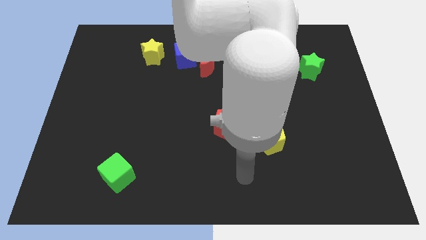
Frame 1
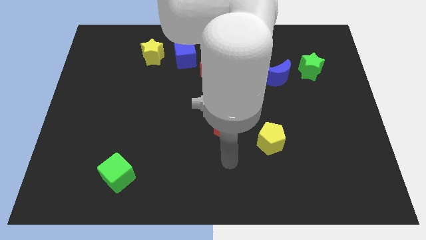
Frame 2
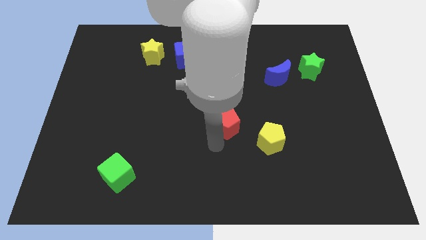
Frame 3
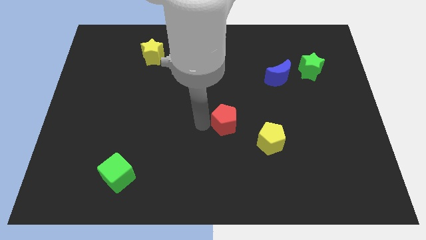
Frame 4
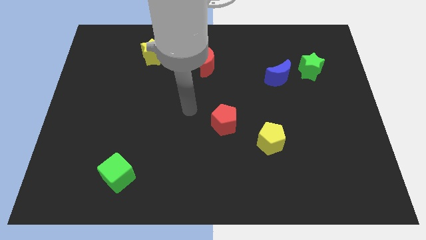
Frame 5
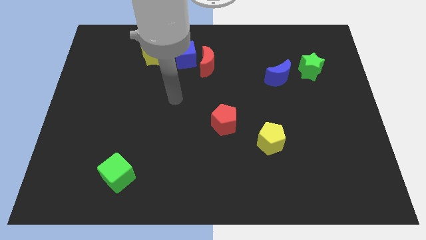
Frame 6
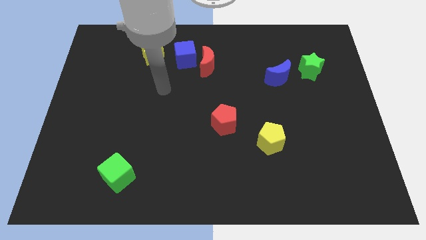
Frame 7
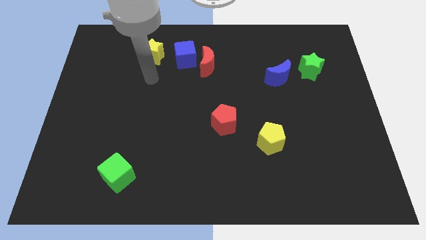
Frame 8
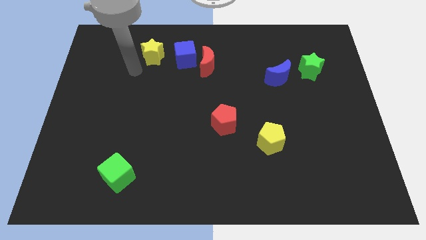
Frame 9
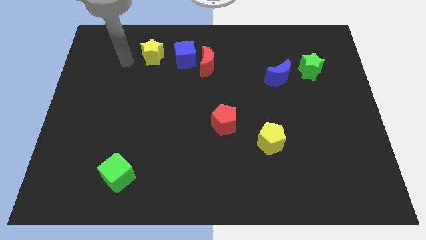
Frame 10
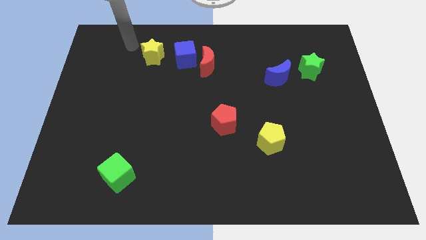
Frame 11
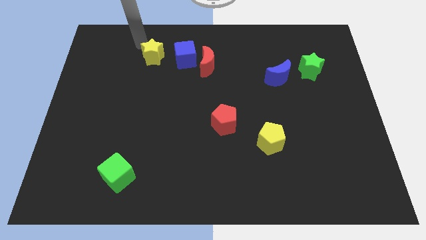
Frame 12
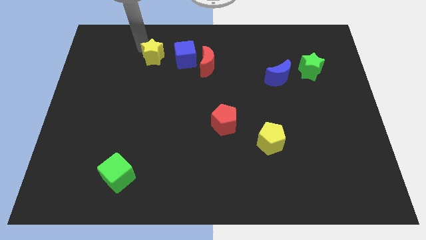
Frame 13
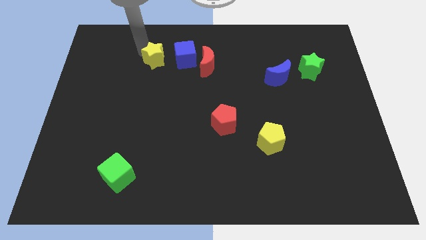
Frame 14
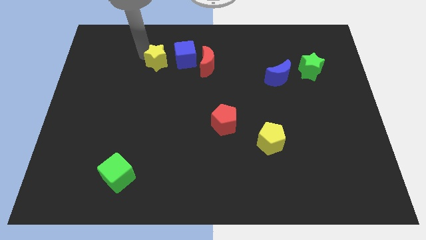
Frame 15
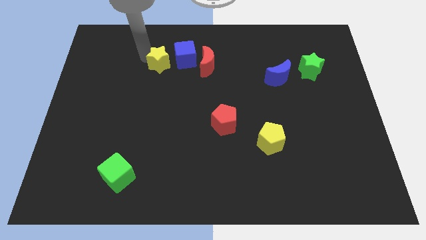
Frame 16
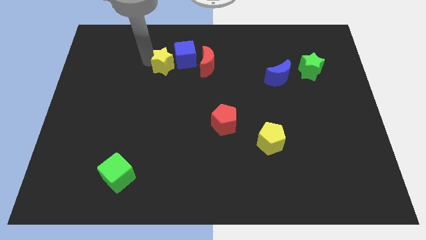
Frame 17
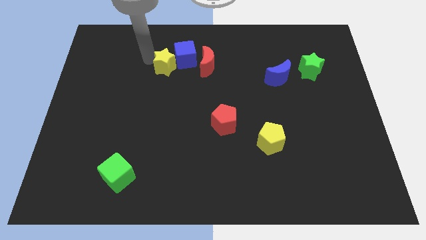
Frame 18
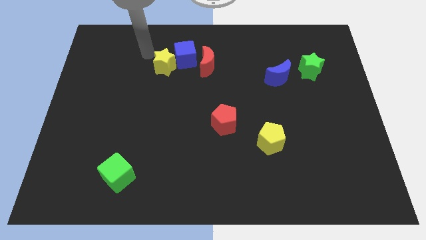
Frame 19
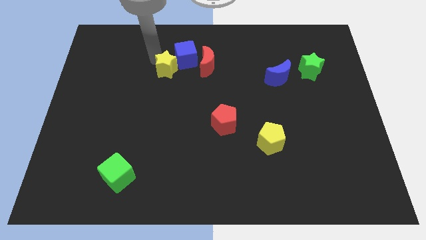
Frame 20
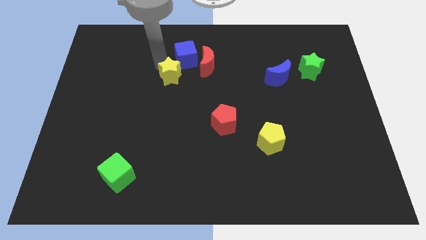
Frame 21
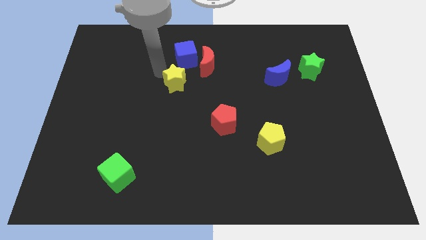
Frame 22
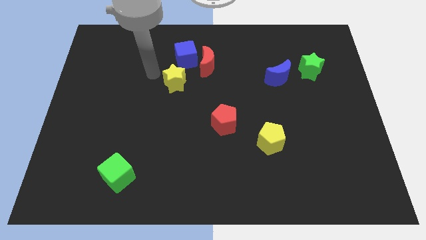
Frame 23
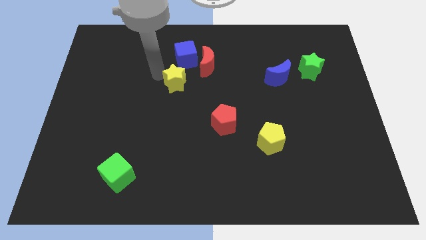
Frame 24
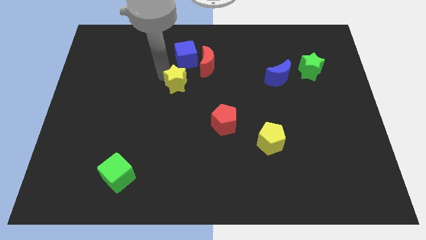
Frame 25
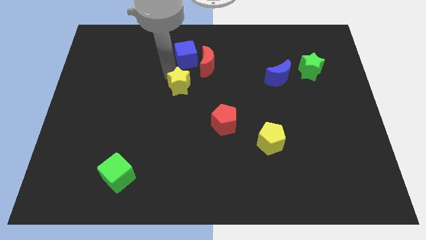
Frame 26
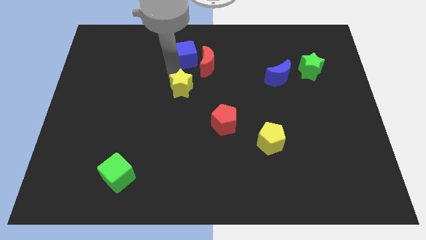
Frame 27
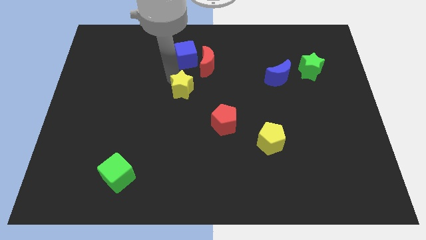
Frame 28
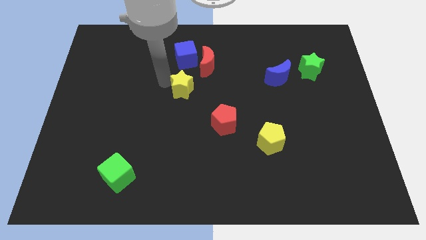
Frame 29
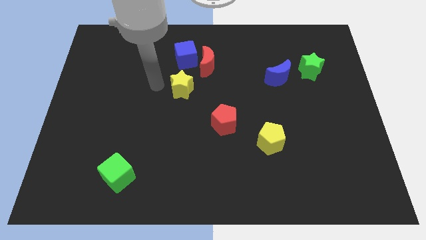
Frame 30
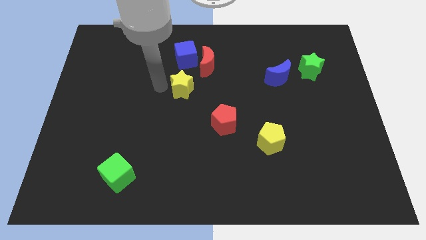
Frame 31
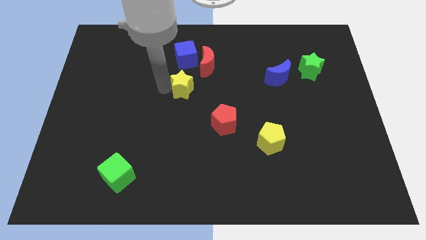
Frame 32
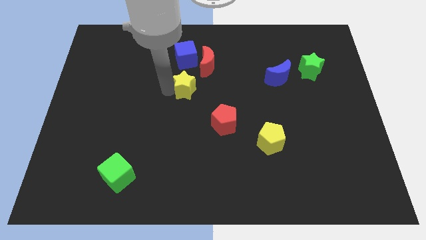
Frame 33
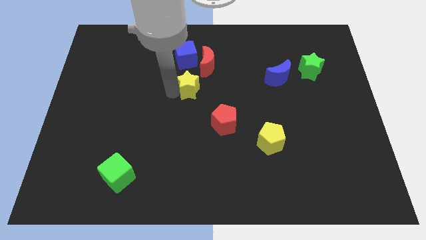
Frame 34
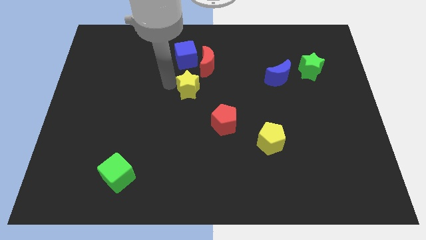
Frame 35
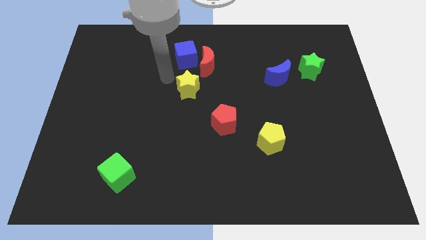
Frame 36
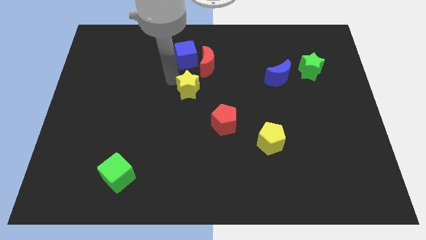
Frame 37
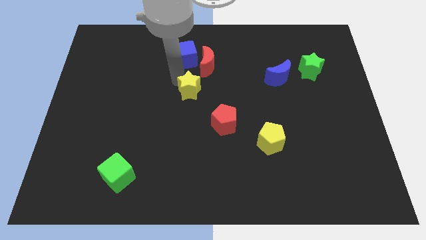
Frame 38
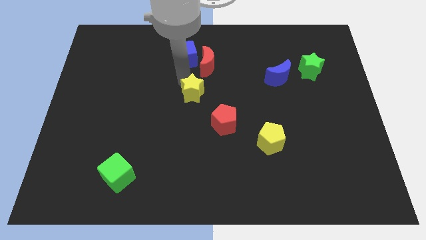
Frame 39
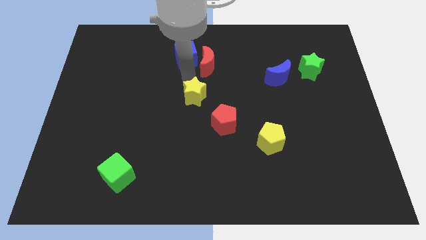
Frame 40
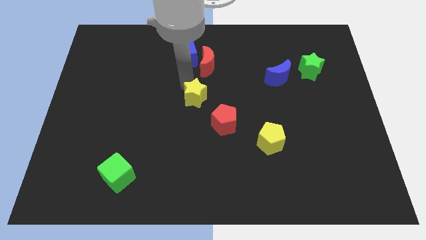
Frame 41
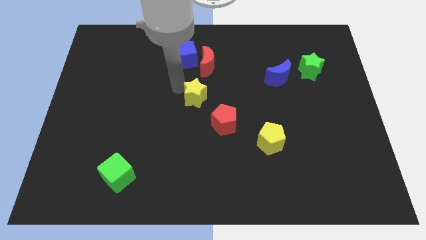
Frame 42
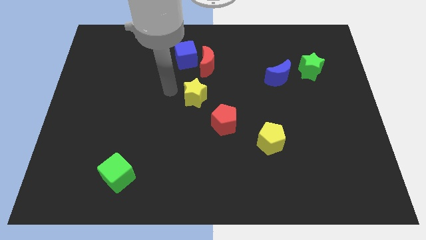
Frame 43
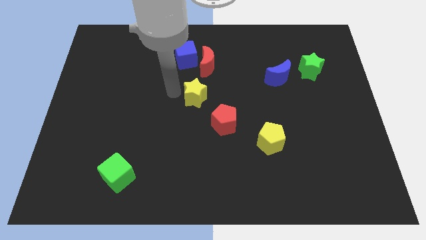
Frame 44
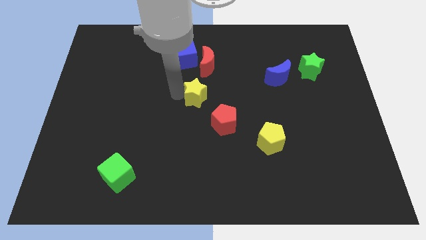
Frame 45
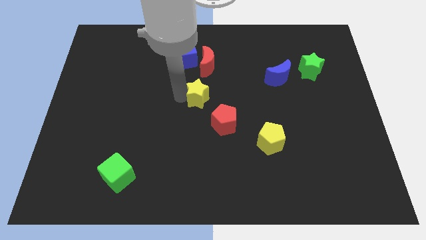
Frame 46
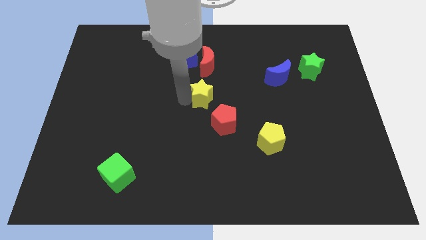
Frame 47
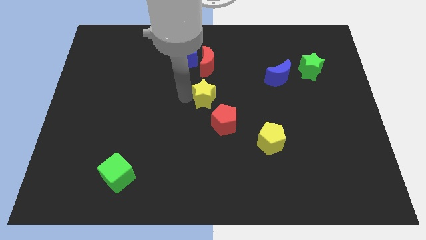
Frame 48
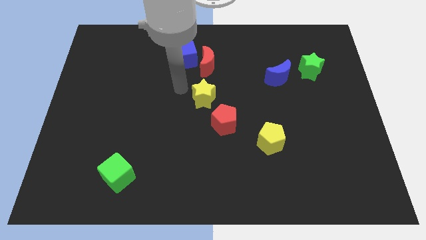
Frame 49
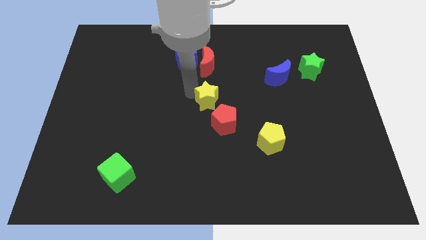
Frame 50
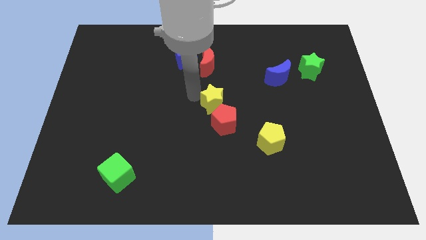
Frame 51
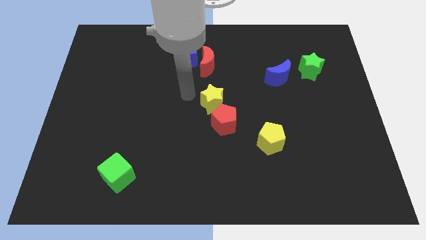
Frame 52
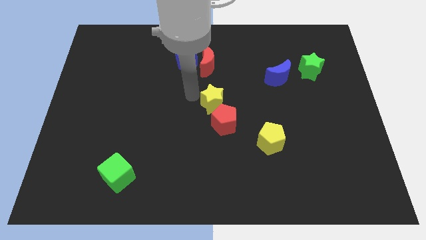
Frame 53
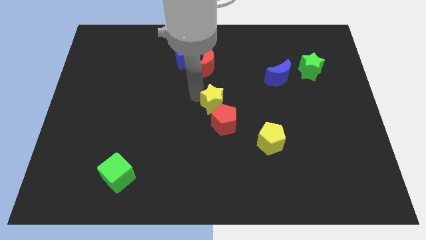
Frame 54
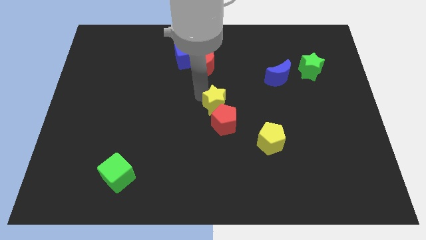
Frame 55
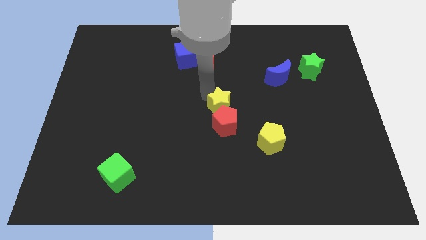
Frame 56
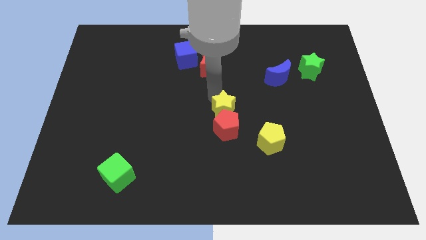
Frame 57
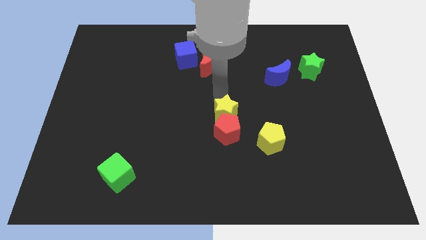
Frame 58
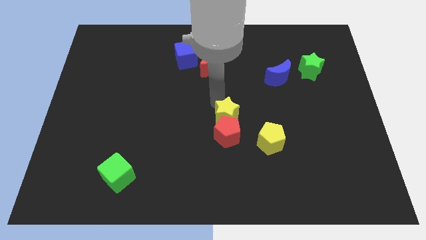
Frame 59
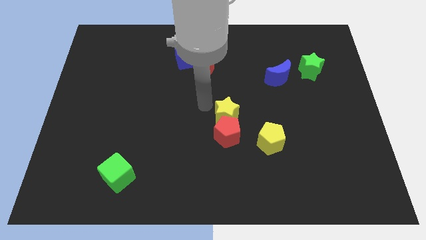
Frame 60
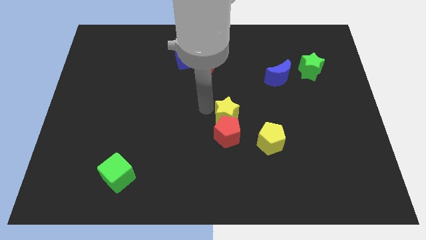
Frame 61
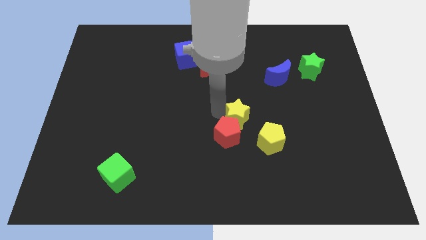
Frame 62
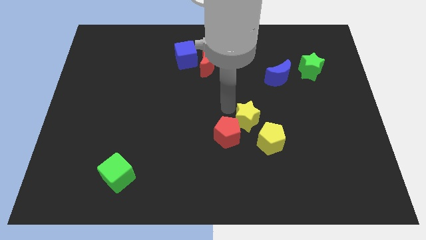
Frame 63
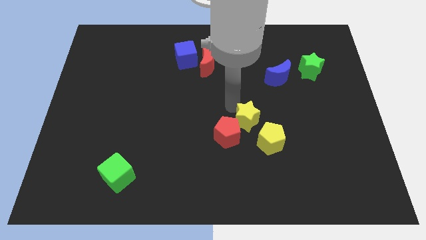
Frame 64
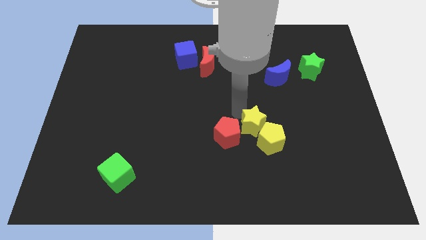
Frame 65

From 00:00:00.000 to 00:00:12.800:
slide the yellow star close to the yellow pentagon

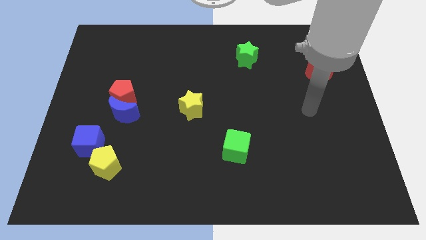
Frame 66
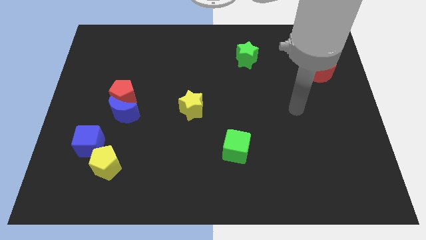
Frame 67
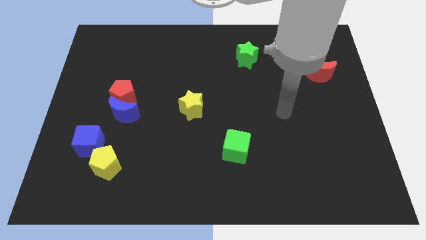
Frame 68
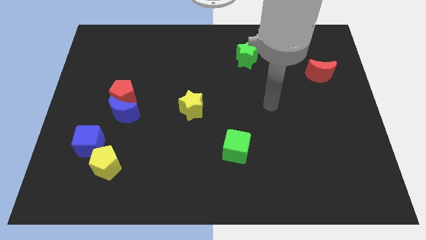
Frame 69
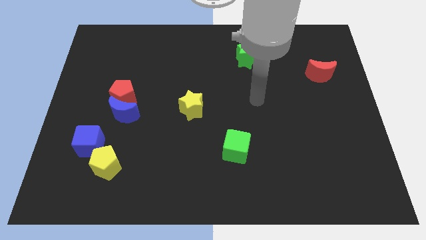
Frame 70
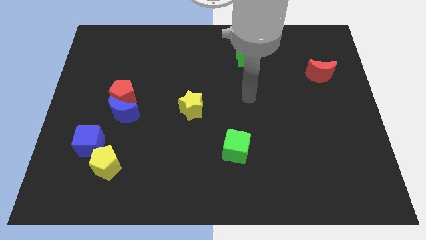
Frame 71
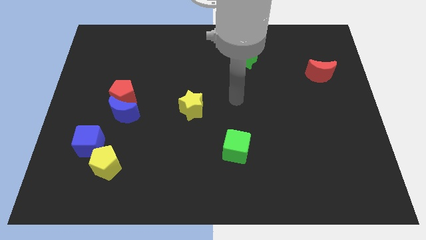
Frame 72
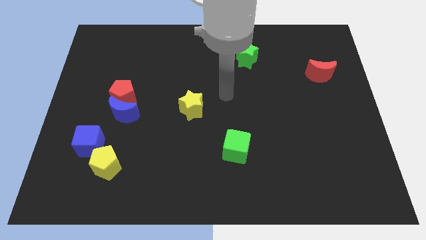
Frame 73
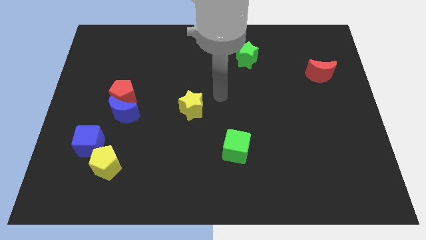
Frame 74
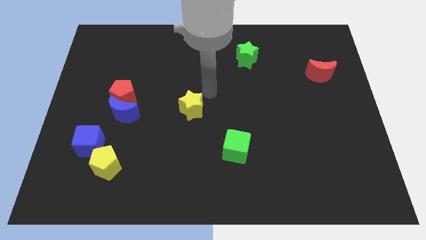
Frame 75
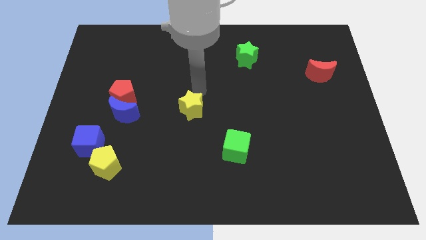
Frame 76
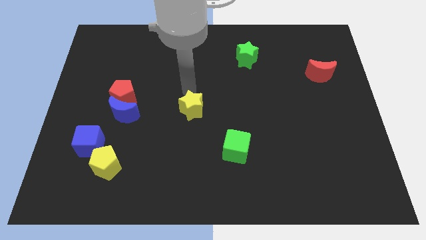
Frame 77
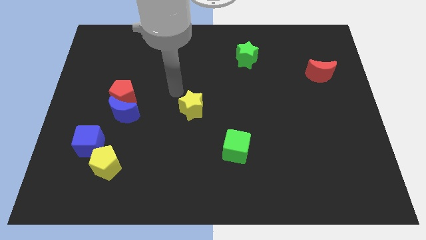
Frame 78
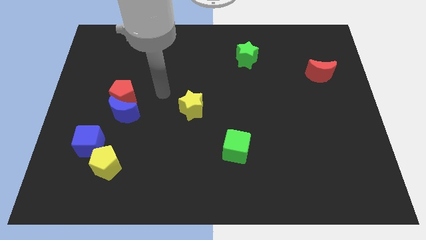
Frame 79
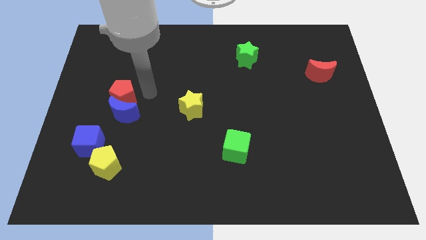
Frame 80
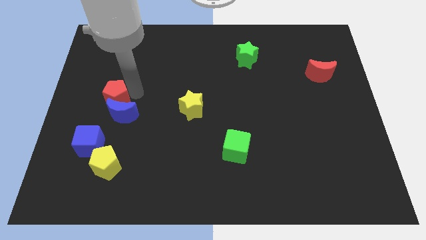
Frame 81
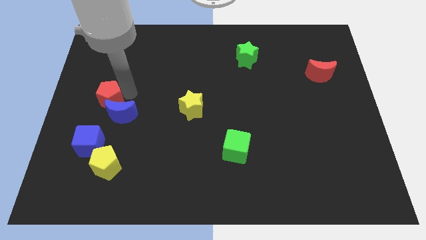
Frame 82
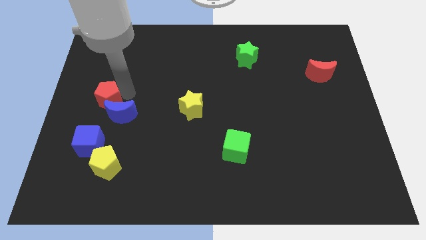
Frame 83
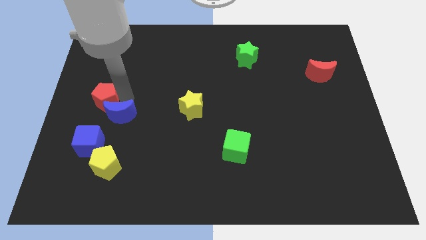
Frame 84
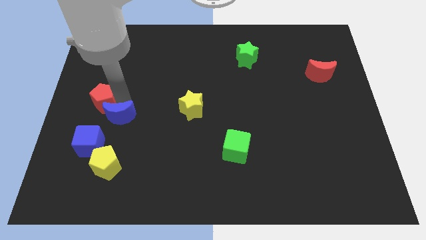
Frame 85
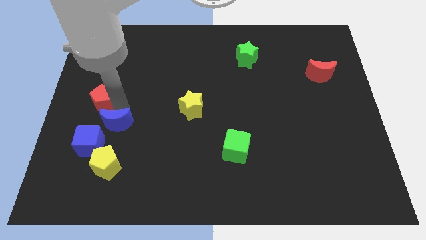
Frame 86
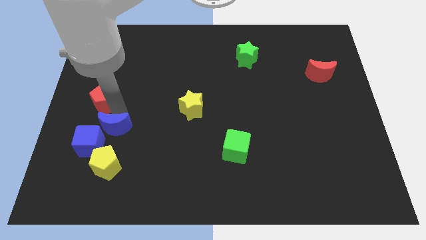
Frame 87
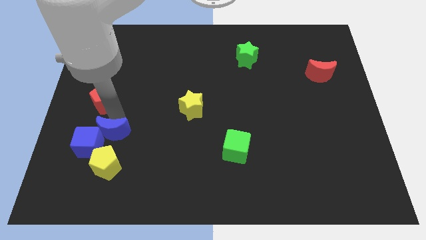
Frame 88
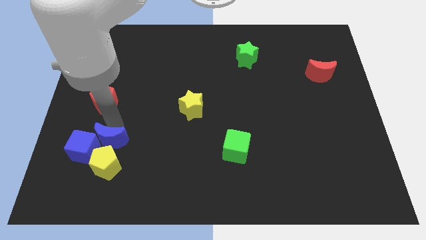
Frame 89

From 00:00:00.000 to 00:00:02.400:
slide the blue moon close to the yellow pentagon
